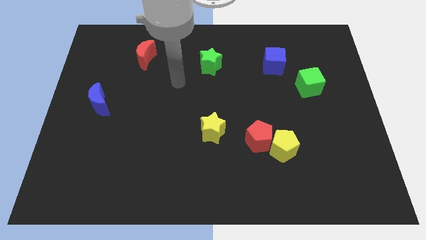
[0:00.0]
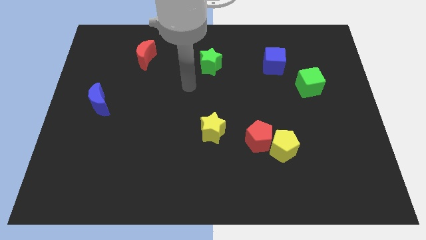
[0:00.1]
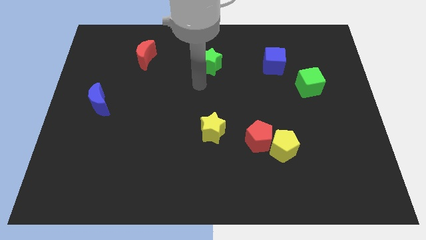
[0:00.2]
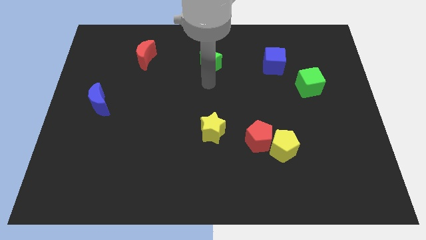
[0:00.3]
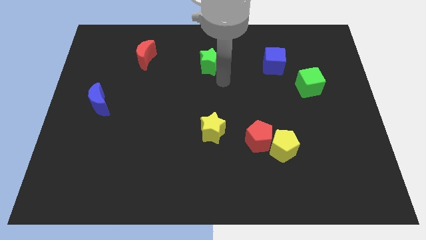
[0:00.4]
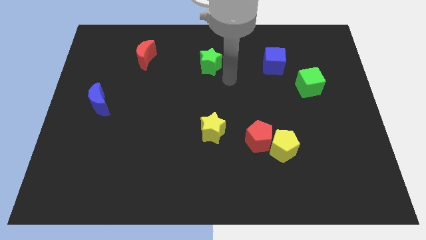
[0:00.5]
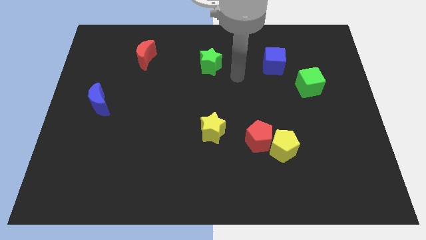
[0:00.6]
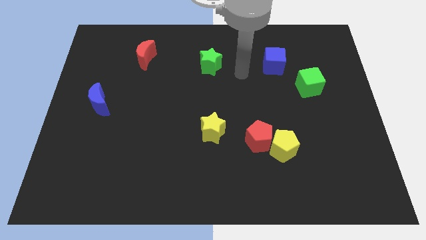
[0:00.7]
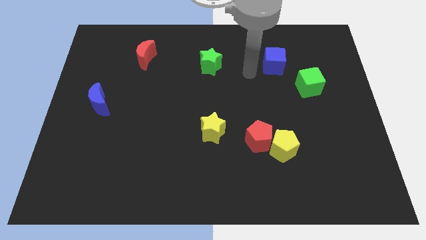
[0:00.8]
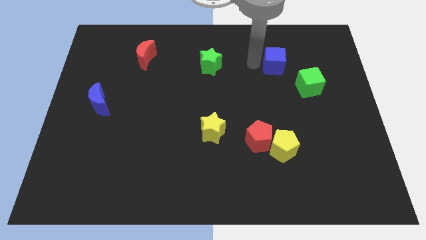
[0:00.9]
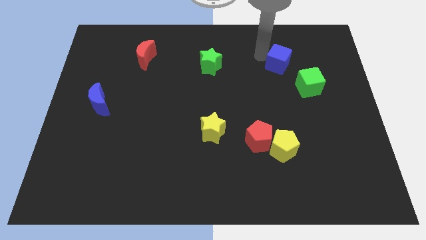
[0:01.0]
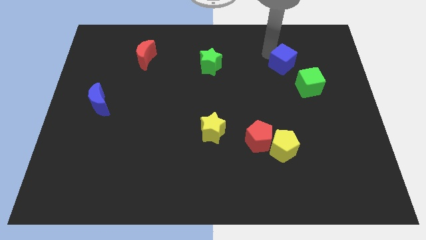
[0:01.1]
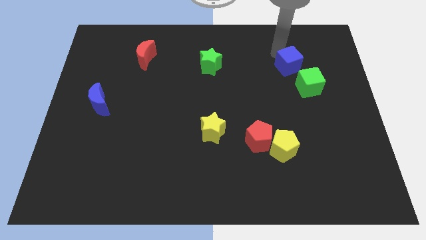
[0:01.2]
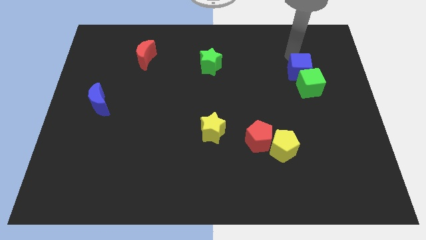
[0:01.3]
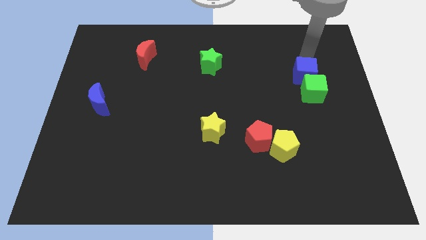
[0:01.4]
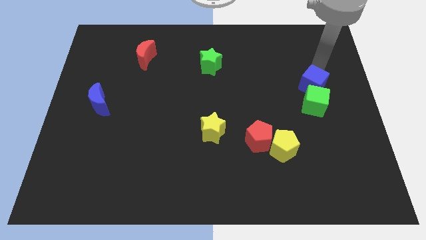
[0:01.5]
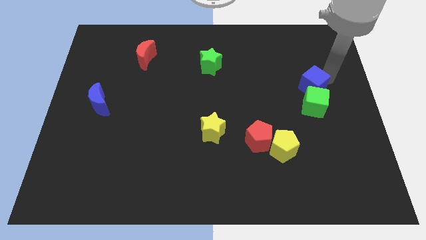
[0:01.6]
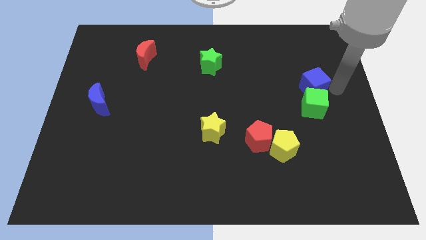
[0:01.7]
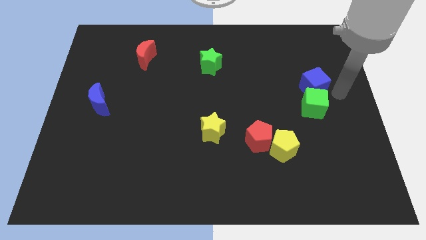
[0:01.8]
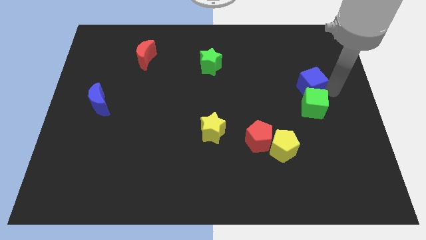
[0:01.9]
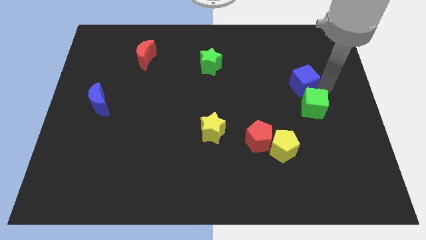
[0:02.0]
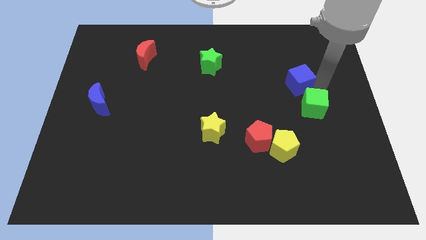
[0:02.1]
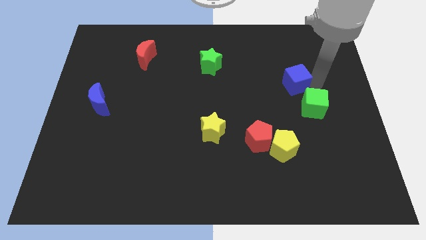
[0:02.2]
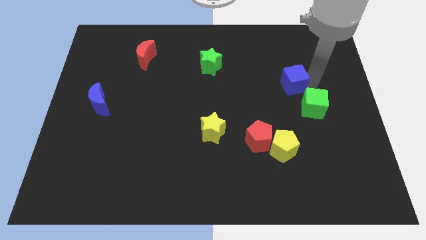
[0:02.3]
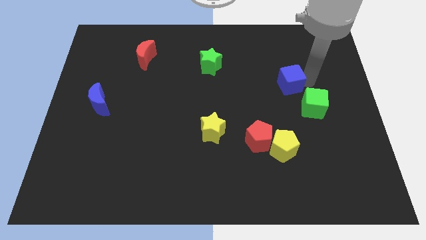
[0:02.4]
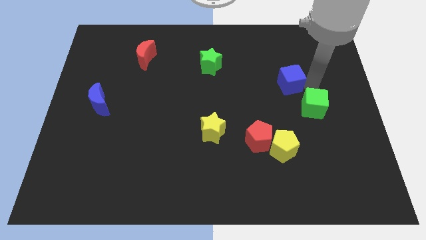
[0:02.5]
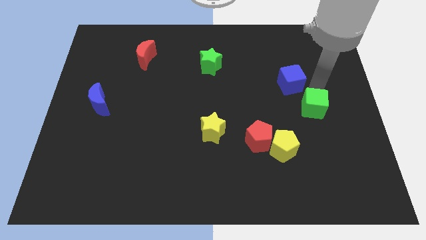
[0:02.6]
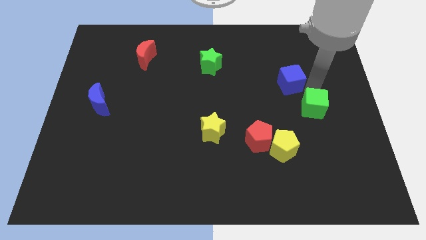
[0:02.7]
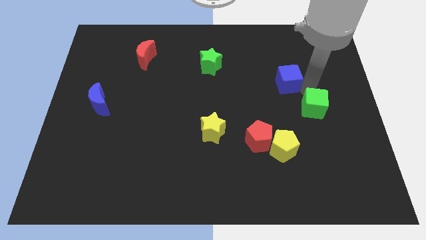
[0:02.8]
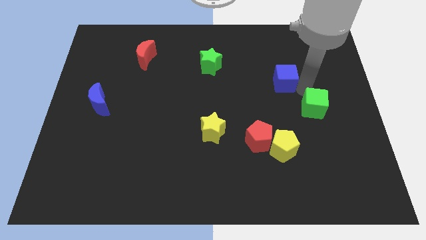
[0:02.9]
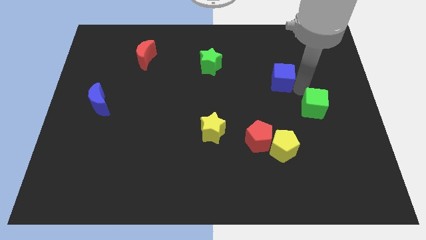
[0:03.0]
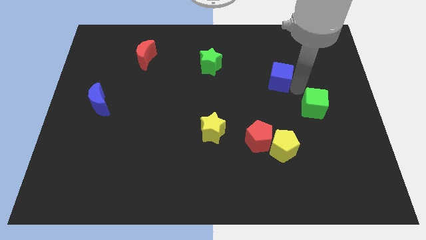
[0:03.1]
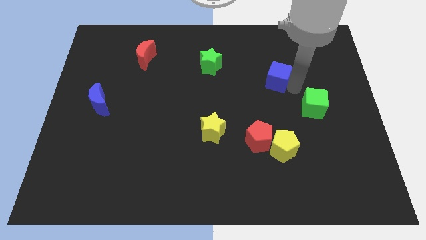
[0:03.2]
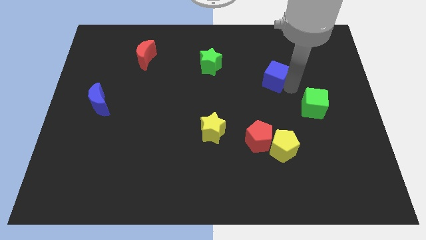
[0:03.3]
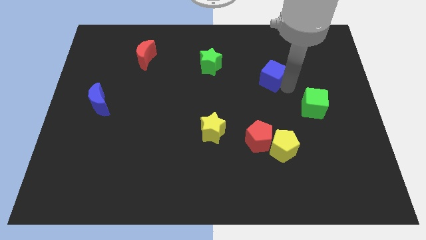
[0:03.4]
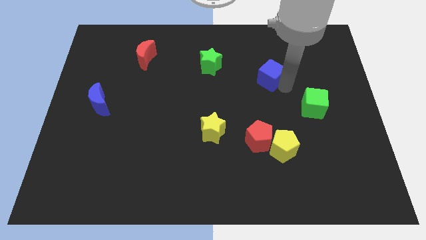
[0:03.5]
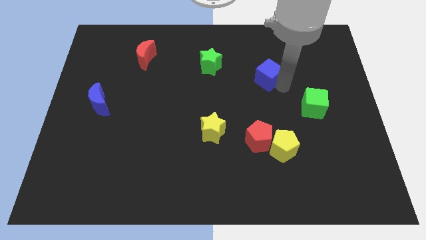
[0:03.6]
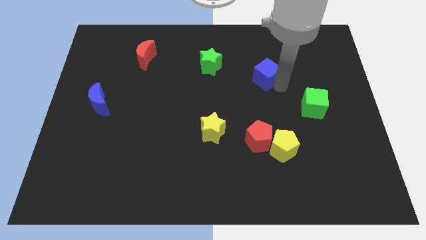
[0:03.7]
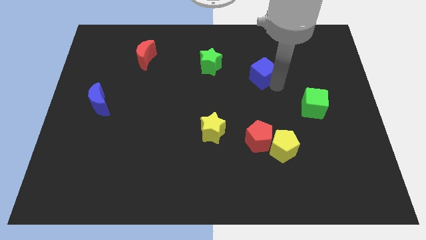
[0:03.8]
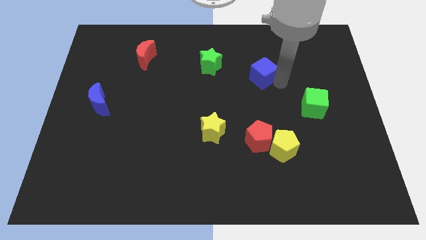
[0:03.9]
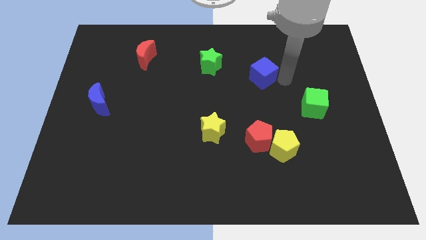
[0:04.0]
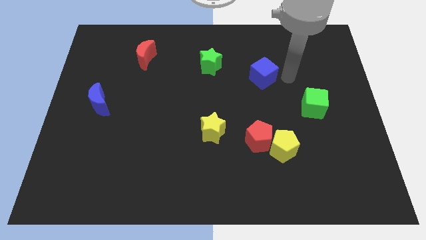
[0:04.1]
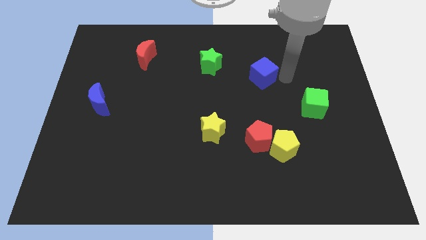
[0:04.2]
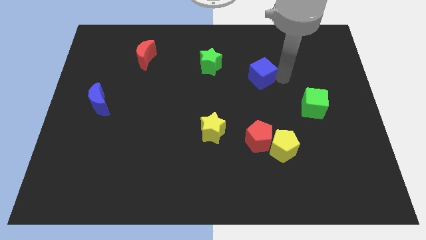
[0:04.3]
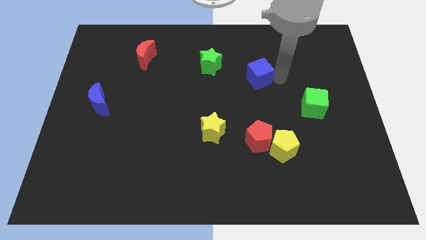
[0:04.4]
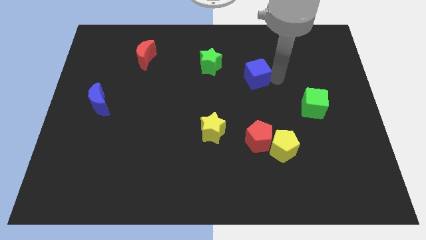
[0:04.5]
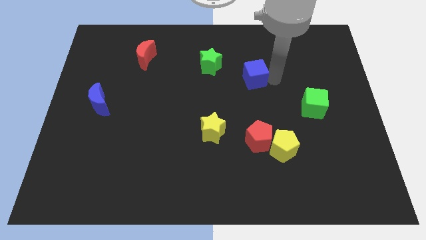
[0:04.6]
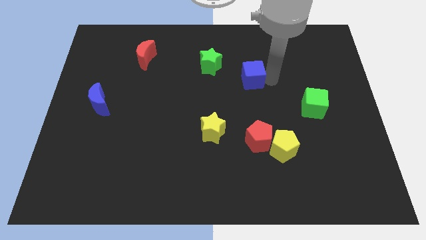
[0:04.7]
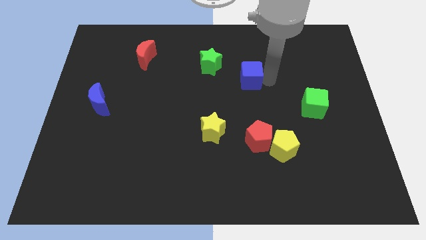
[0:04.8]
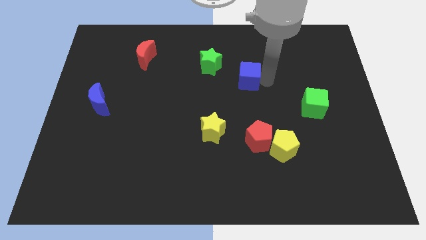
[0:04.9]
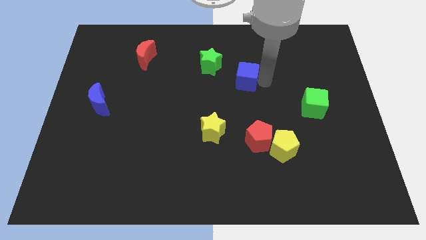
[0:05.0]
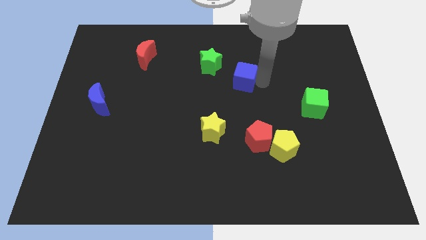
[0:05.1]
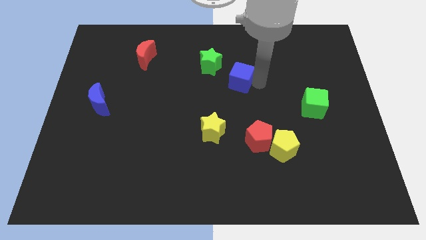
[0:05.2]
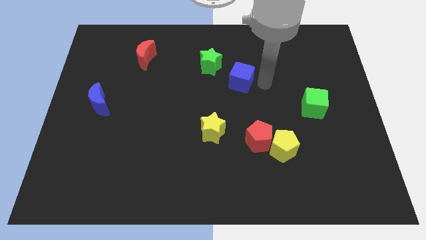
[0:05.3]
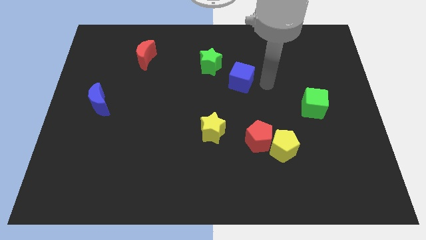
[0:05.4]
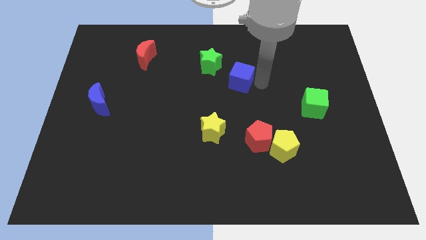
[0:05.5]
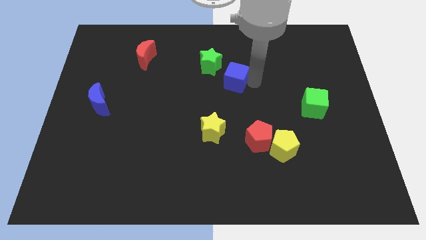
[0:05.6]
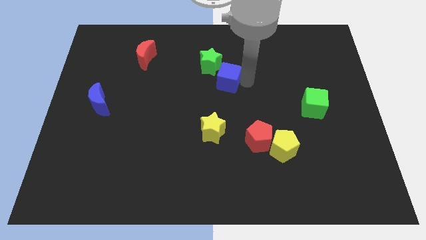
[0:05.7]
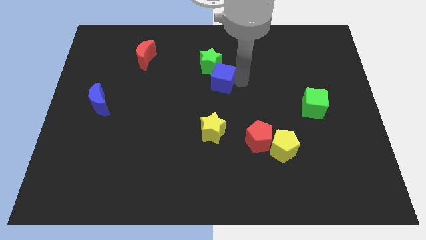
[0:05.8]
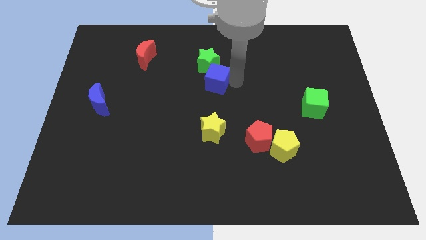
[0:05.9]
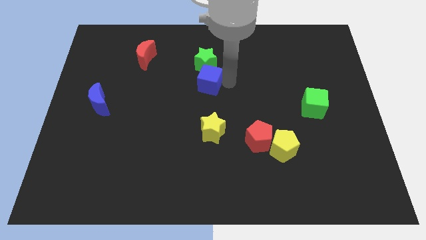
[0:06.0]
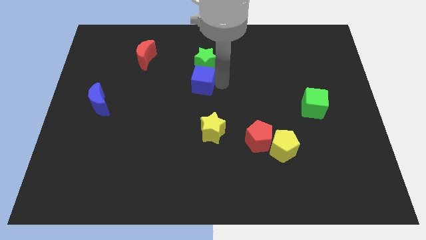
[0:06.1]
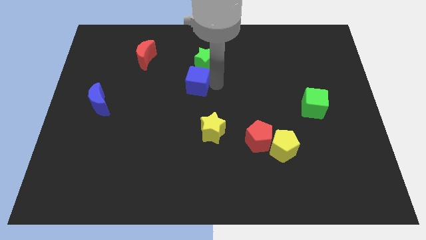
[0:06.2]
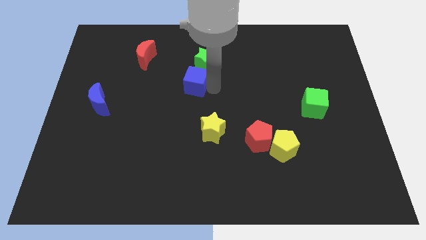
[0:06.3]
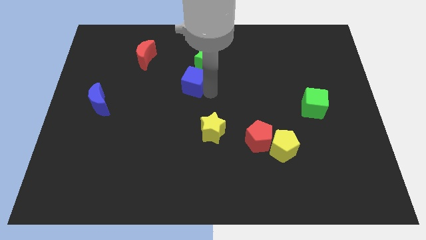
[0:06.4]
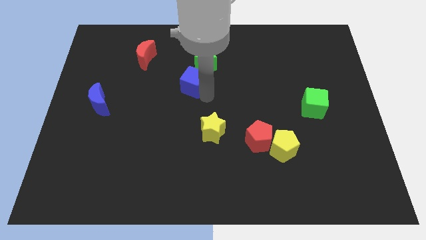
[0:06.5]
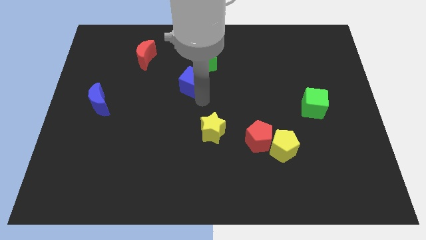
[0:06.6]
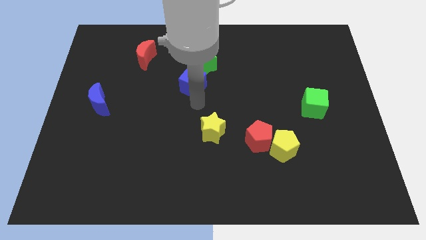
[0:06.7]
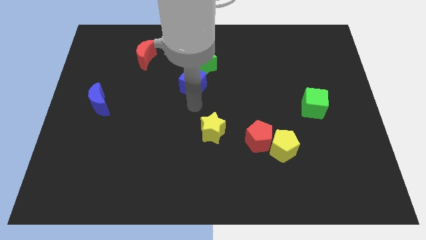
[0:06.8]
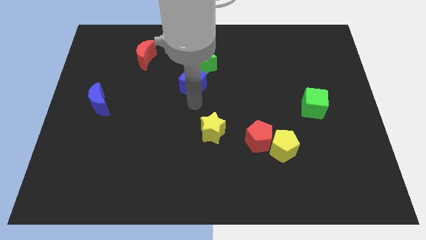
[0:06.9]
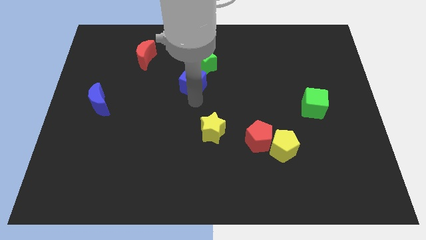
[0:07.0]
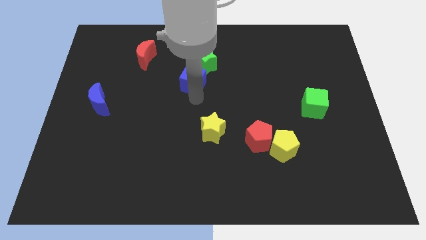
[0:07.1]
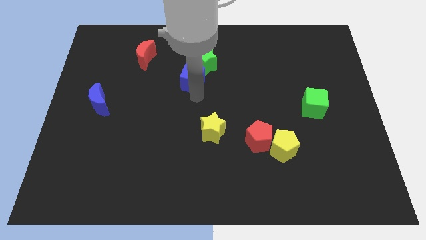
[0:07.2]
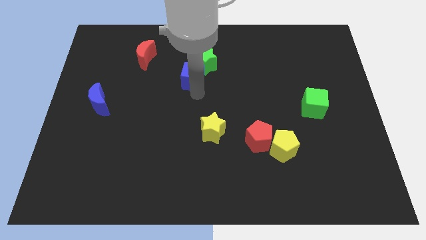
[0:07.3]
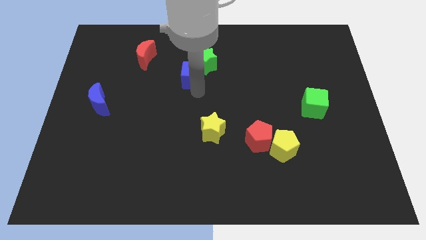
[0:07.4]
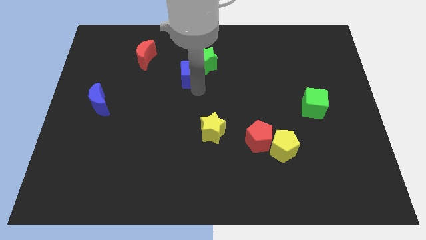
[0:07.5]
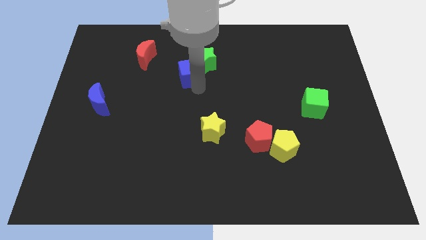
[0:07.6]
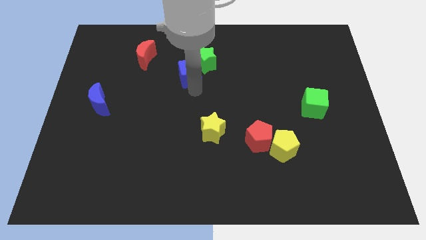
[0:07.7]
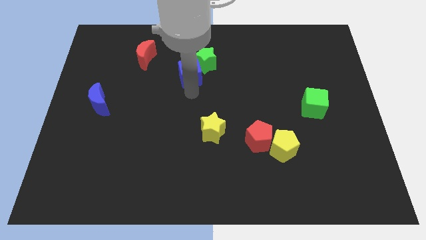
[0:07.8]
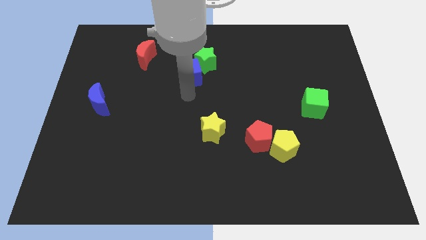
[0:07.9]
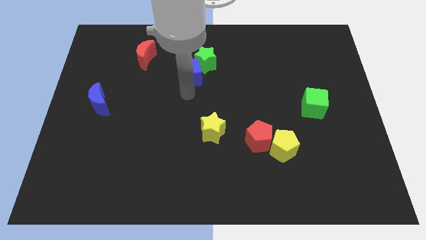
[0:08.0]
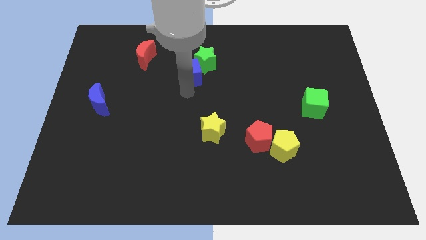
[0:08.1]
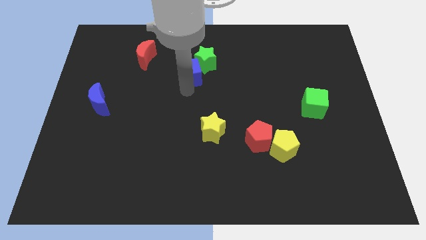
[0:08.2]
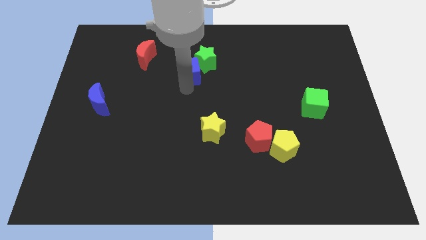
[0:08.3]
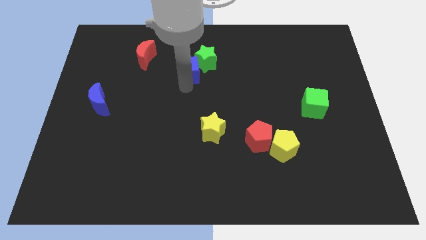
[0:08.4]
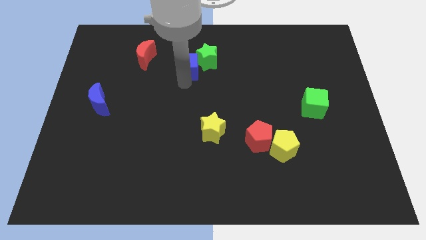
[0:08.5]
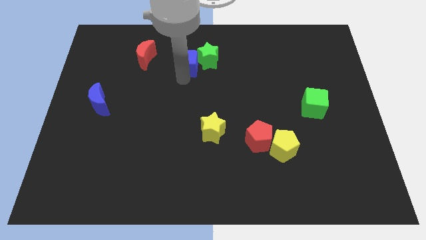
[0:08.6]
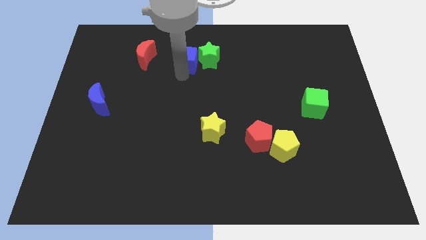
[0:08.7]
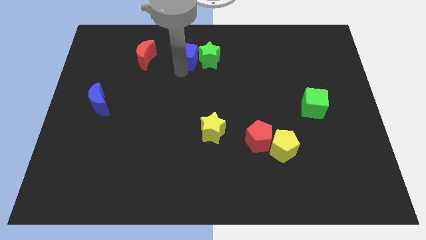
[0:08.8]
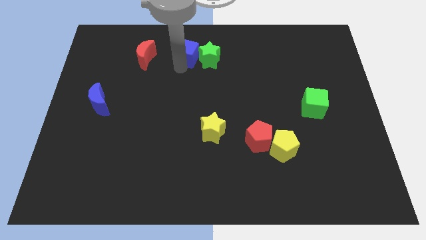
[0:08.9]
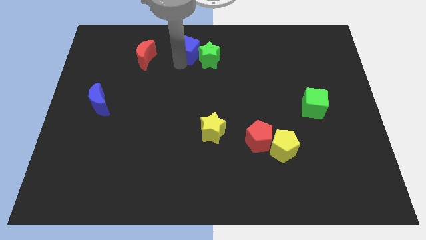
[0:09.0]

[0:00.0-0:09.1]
slide the blue cube to the top
